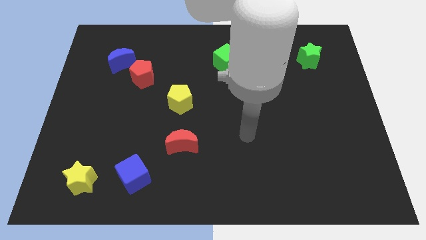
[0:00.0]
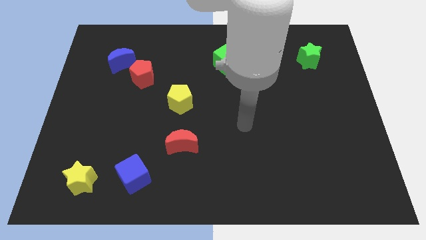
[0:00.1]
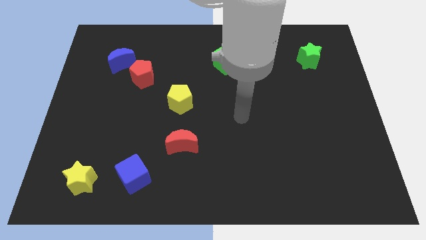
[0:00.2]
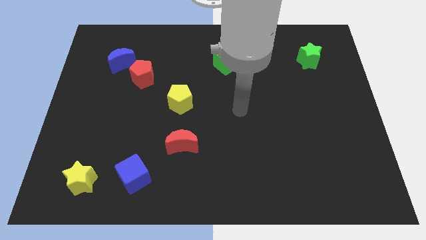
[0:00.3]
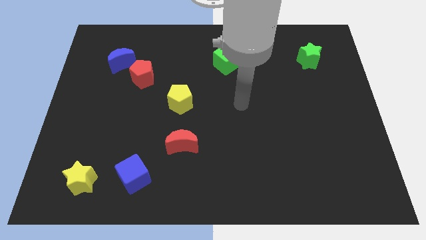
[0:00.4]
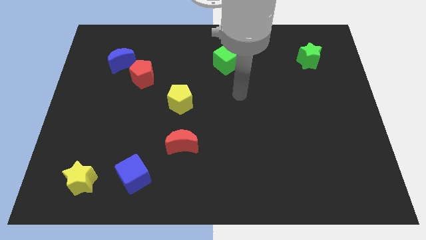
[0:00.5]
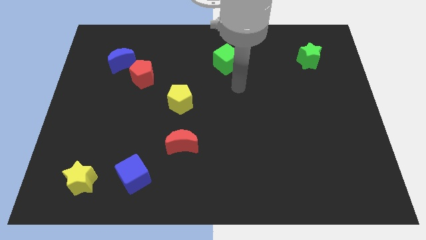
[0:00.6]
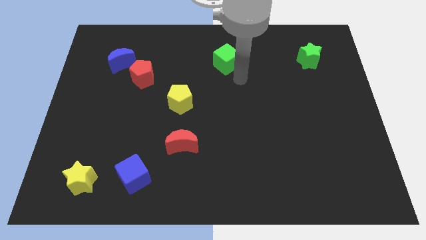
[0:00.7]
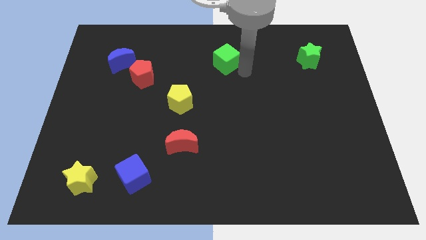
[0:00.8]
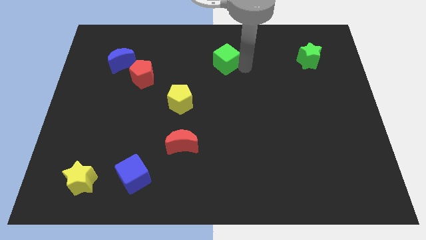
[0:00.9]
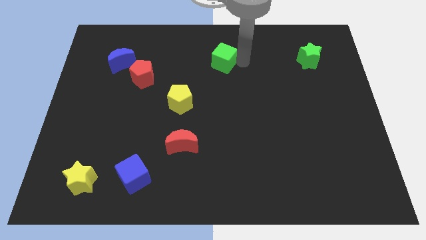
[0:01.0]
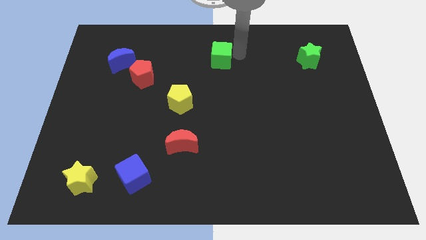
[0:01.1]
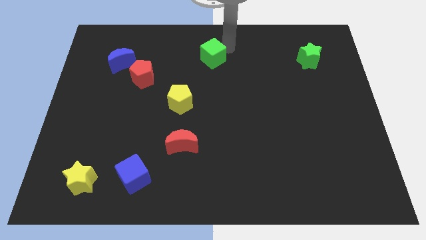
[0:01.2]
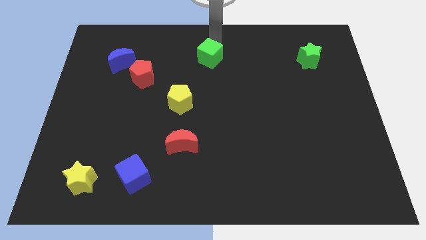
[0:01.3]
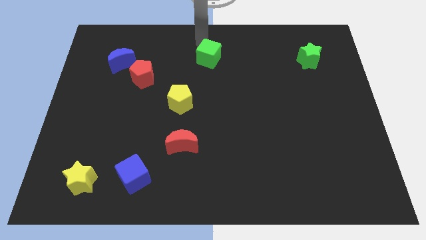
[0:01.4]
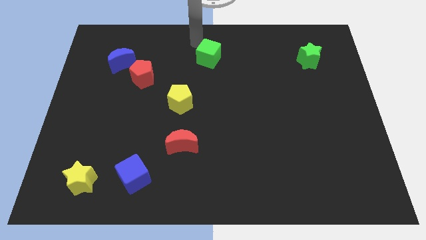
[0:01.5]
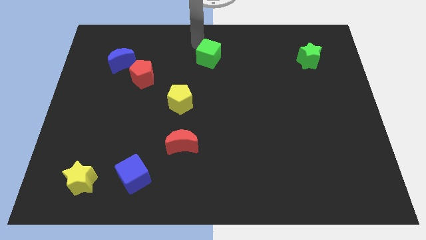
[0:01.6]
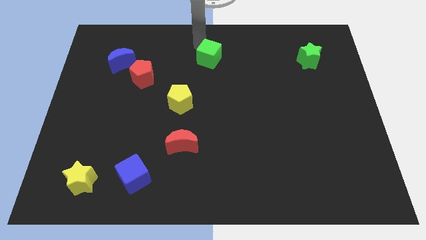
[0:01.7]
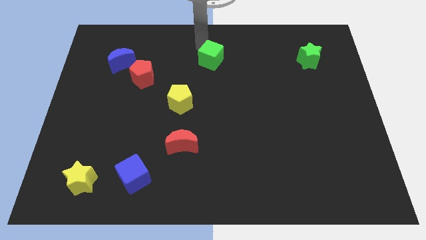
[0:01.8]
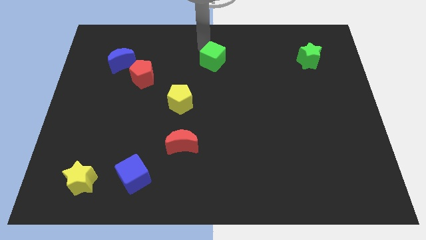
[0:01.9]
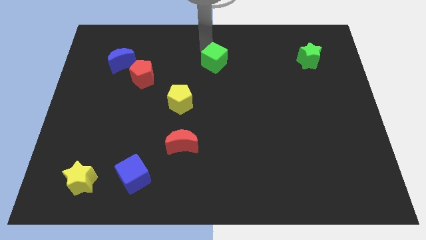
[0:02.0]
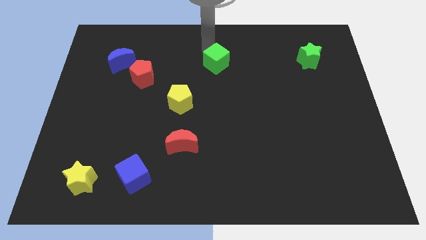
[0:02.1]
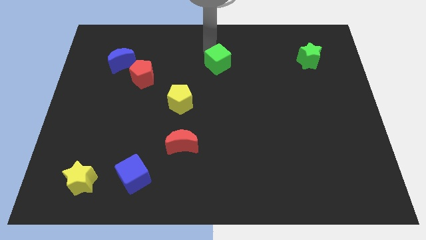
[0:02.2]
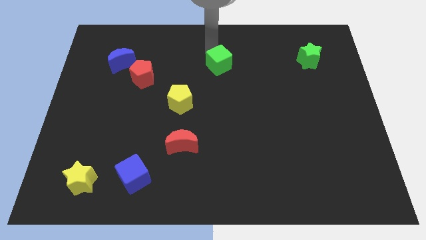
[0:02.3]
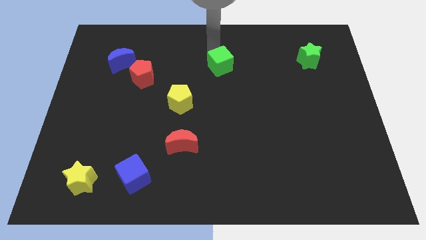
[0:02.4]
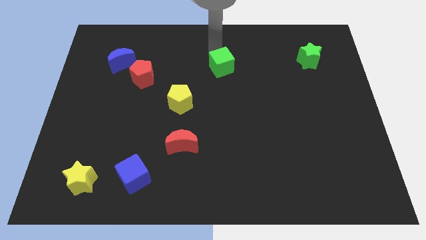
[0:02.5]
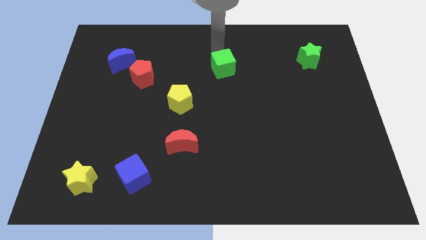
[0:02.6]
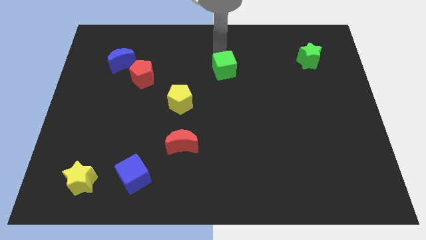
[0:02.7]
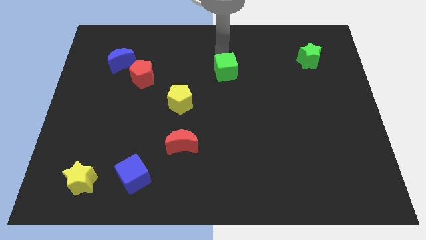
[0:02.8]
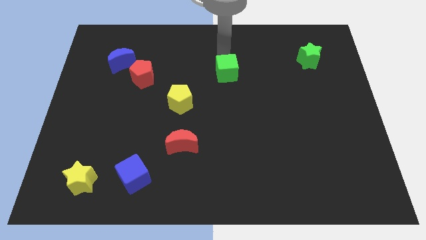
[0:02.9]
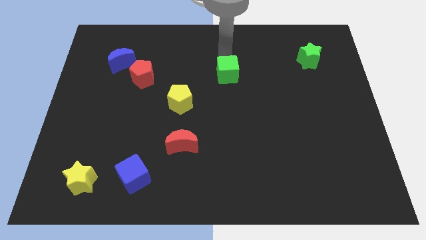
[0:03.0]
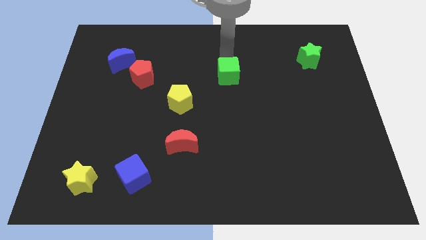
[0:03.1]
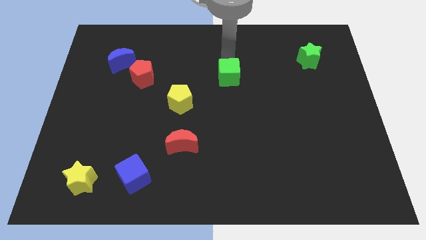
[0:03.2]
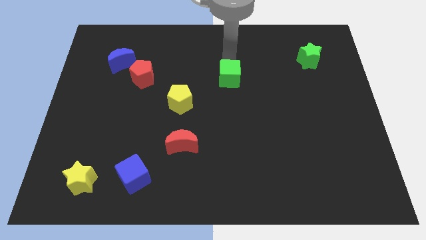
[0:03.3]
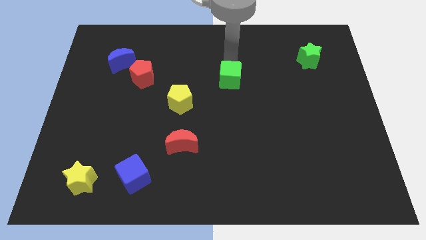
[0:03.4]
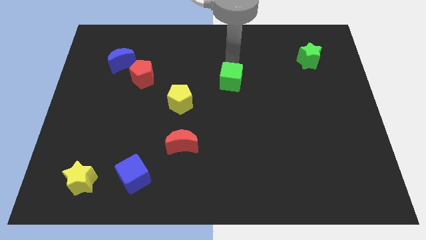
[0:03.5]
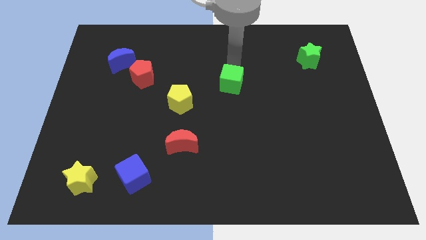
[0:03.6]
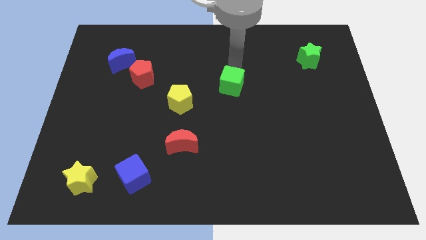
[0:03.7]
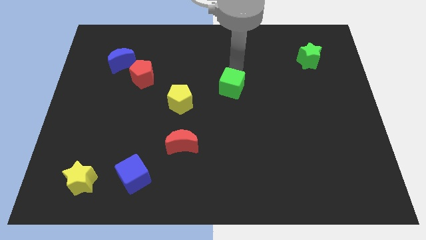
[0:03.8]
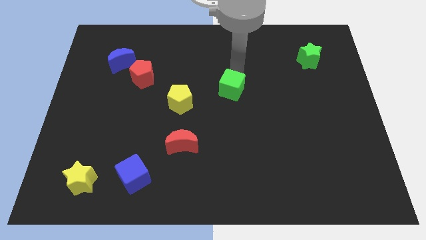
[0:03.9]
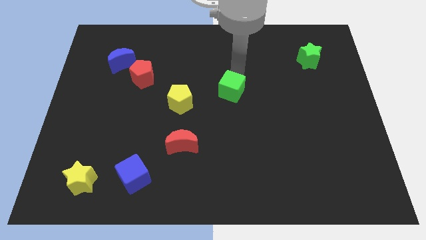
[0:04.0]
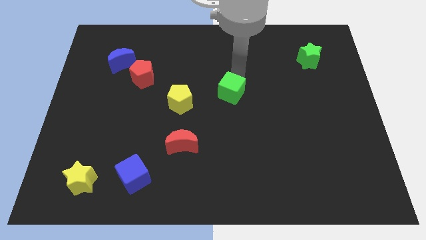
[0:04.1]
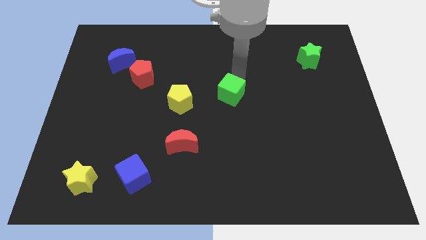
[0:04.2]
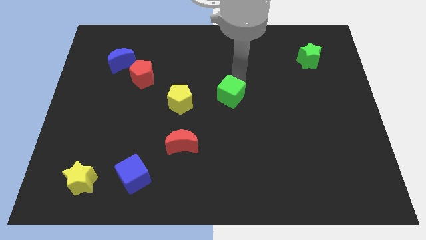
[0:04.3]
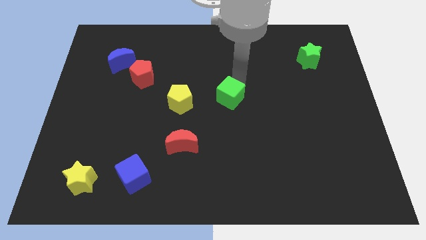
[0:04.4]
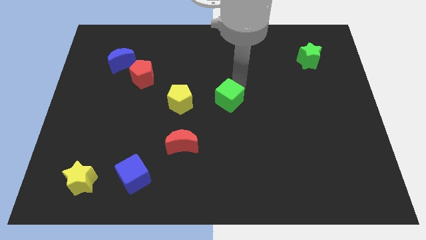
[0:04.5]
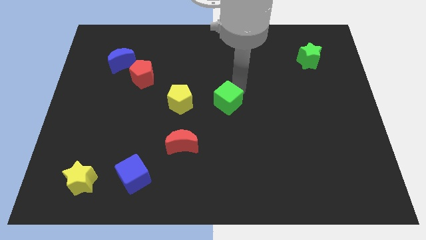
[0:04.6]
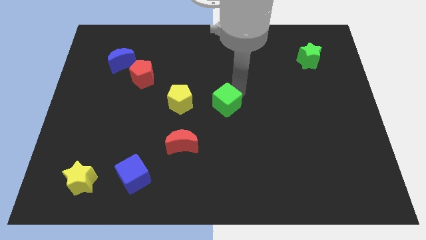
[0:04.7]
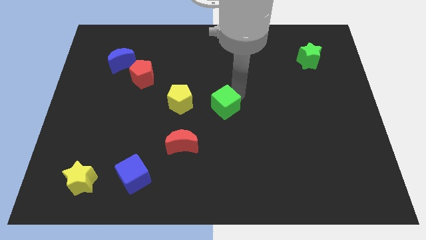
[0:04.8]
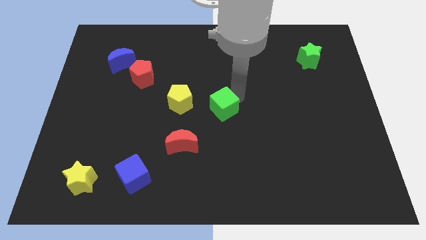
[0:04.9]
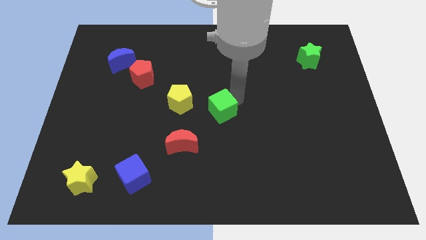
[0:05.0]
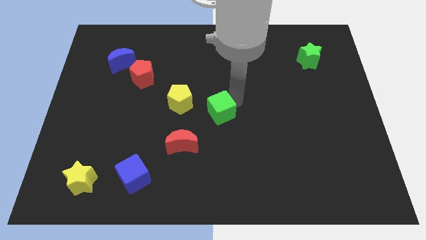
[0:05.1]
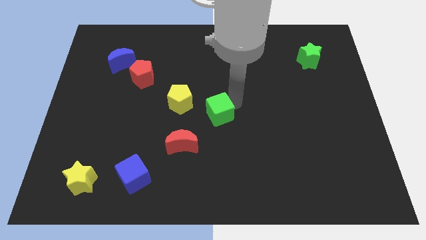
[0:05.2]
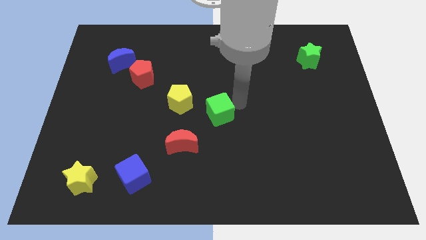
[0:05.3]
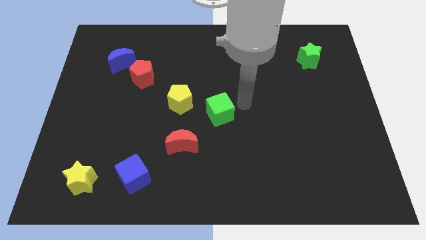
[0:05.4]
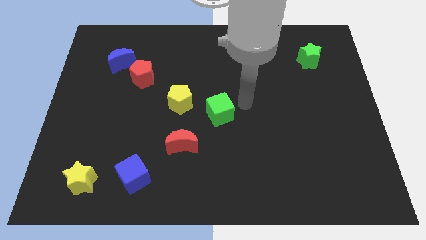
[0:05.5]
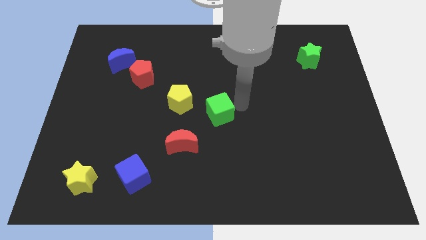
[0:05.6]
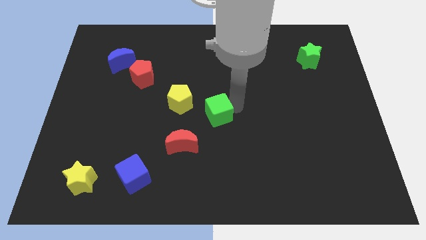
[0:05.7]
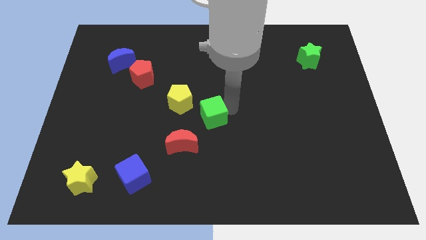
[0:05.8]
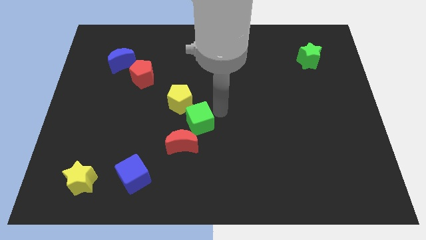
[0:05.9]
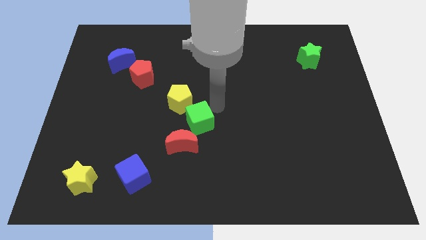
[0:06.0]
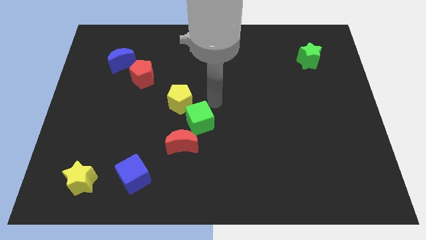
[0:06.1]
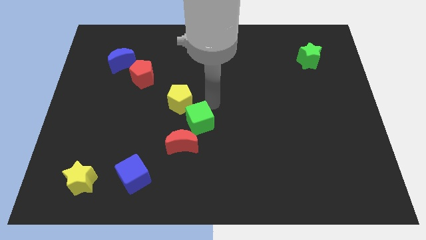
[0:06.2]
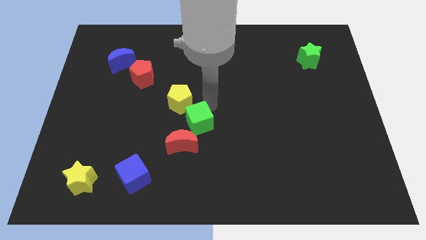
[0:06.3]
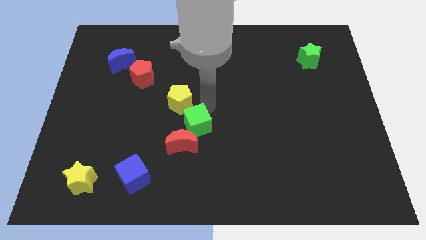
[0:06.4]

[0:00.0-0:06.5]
put the green cube next to the red moon
